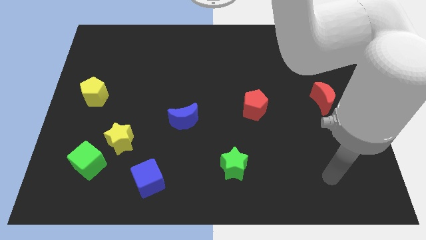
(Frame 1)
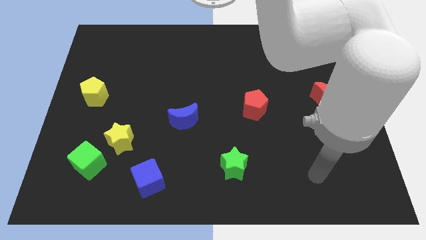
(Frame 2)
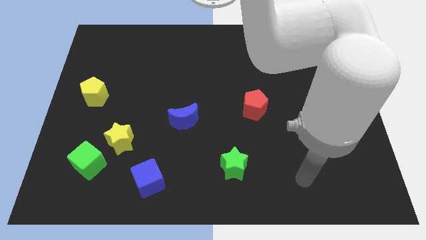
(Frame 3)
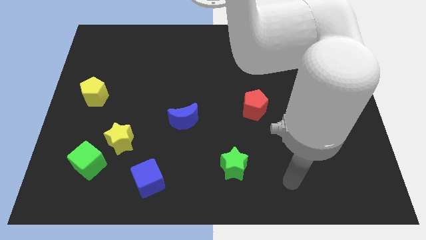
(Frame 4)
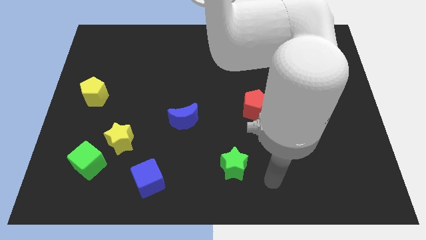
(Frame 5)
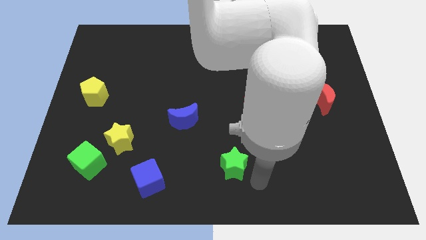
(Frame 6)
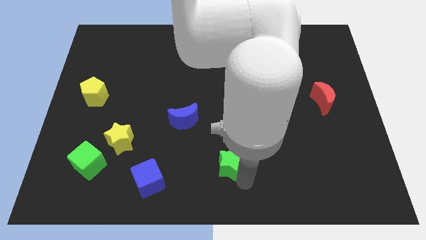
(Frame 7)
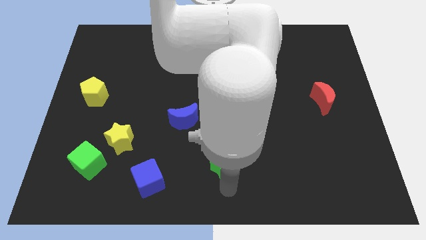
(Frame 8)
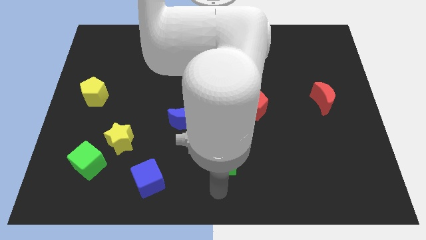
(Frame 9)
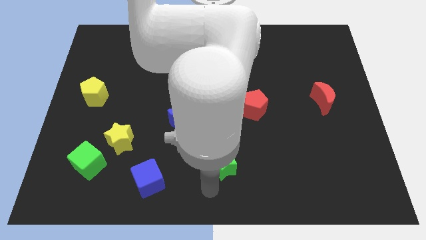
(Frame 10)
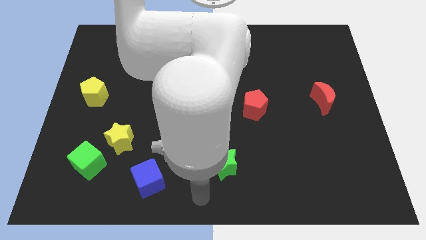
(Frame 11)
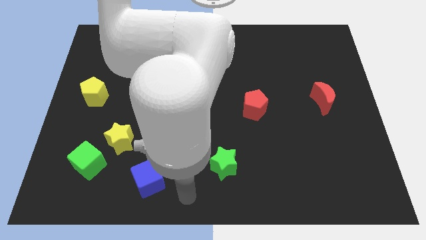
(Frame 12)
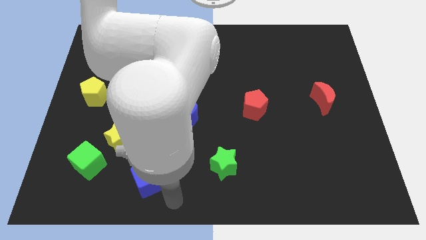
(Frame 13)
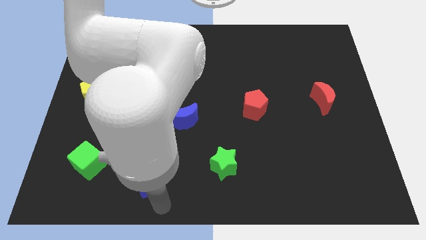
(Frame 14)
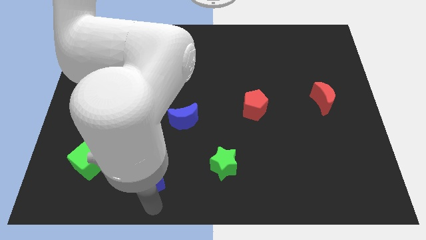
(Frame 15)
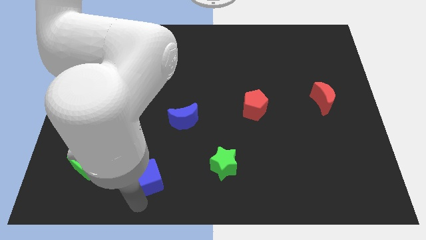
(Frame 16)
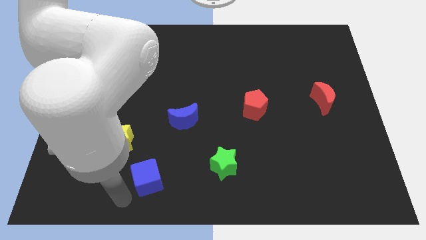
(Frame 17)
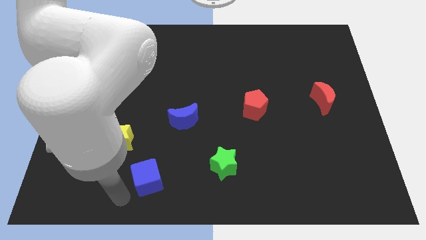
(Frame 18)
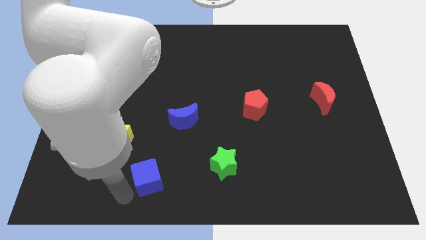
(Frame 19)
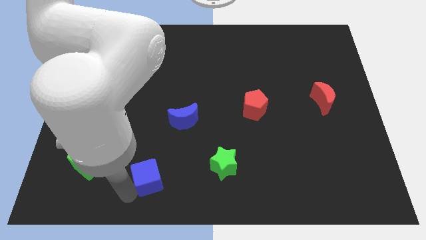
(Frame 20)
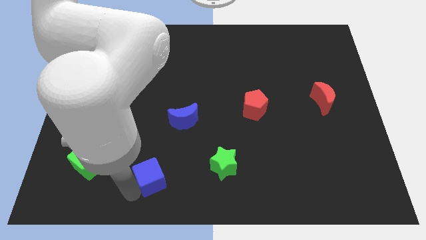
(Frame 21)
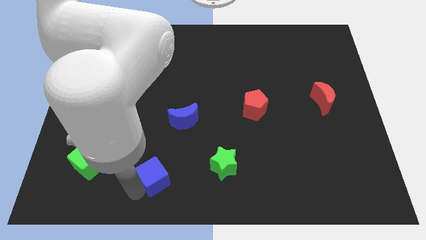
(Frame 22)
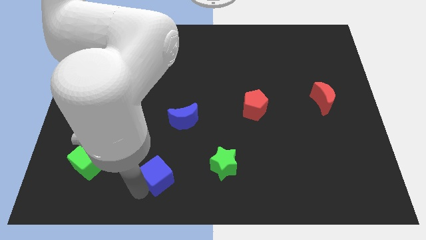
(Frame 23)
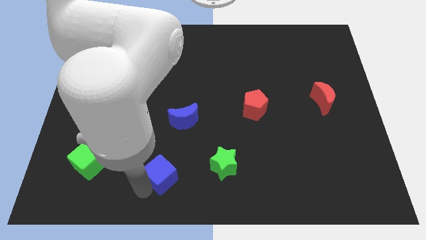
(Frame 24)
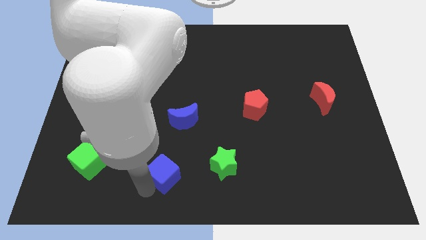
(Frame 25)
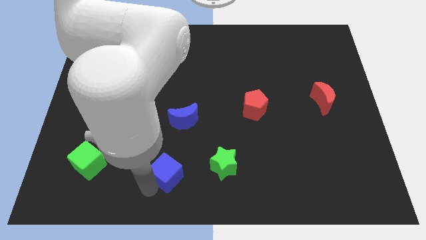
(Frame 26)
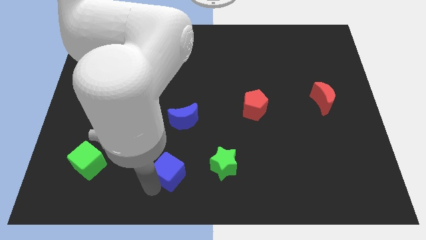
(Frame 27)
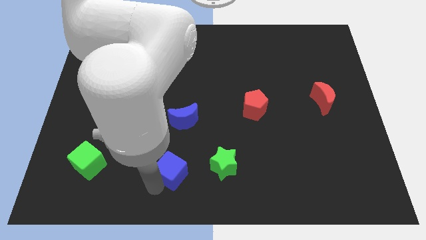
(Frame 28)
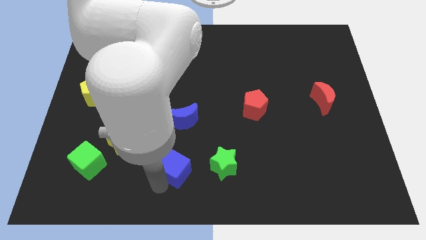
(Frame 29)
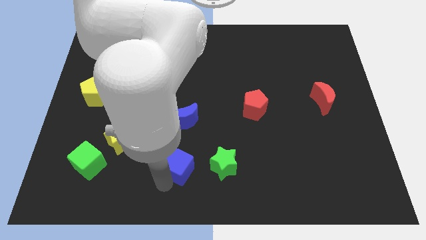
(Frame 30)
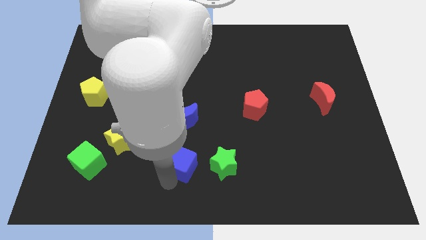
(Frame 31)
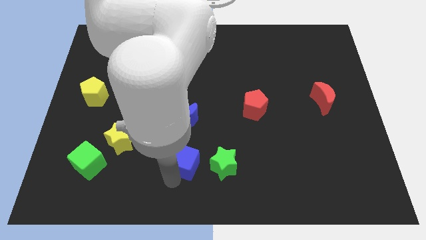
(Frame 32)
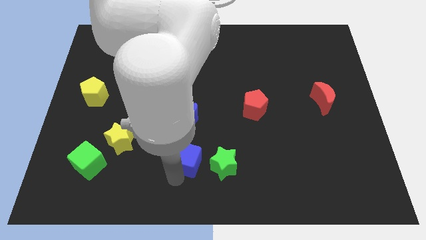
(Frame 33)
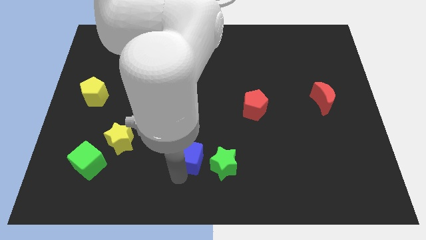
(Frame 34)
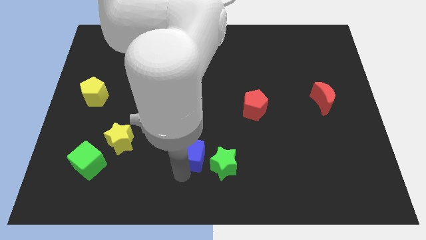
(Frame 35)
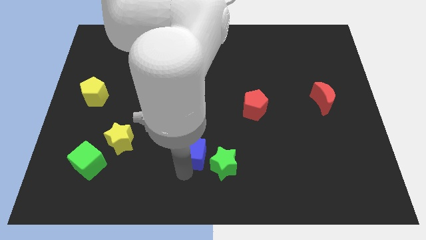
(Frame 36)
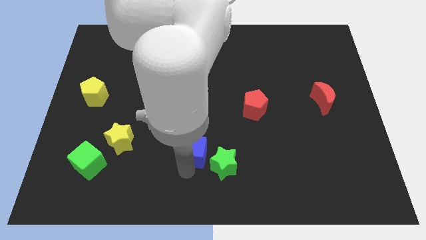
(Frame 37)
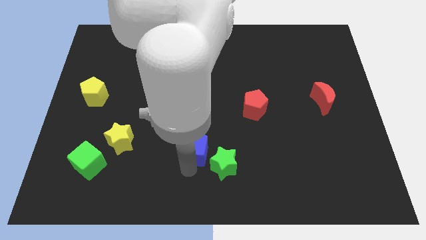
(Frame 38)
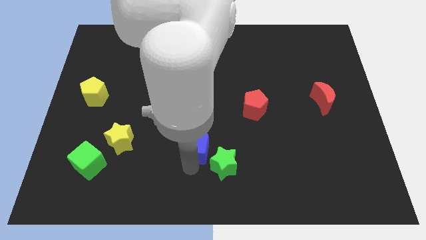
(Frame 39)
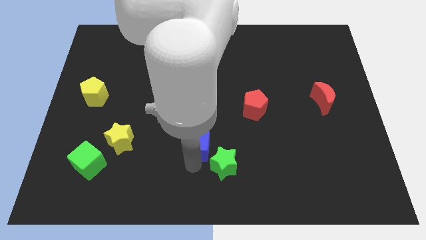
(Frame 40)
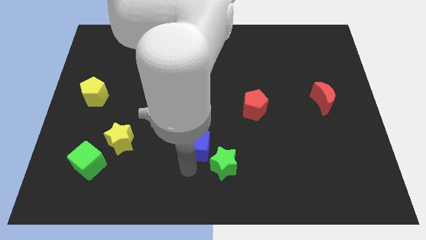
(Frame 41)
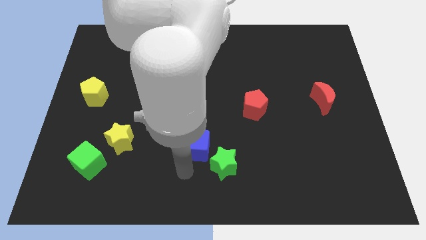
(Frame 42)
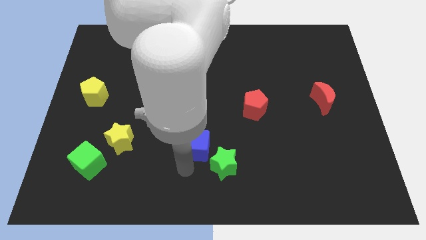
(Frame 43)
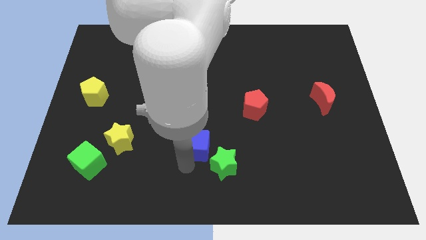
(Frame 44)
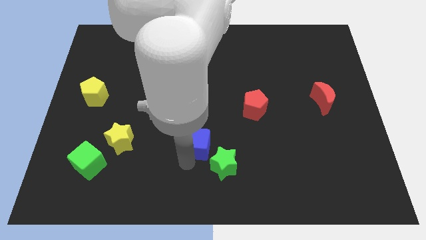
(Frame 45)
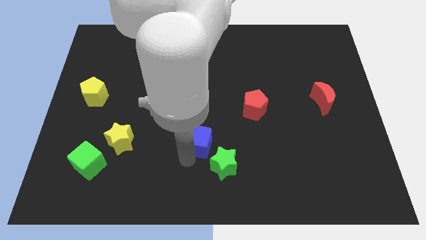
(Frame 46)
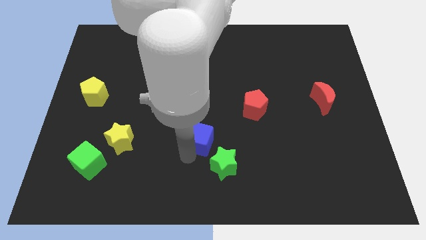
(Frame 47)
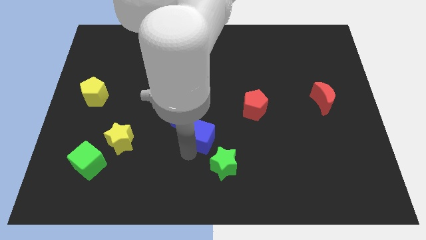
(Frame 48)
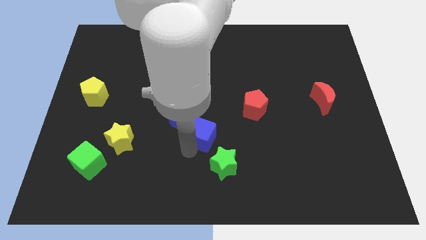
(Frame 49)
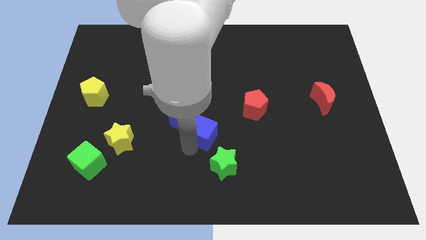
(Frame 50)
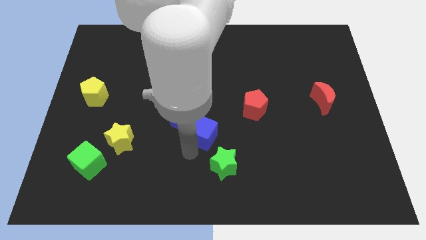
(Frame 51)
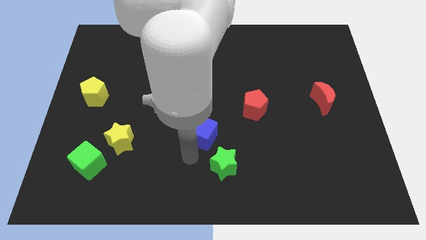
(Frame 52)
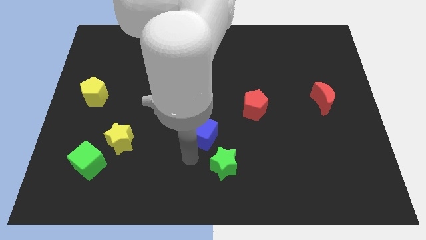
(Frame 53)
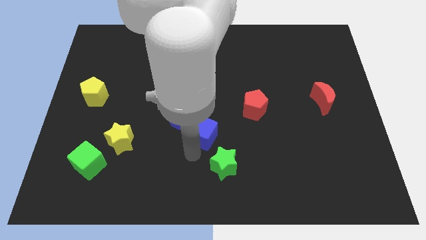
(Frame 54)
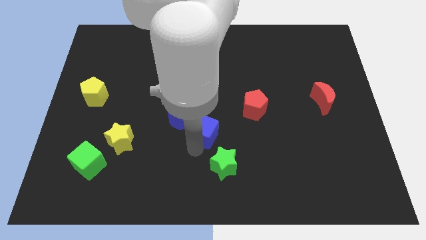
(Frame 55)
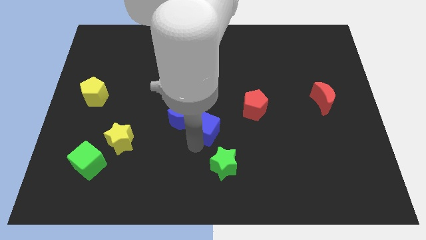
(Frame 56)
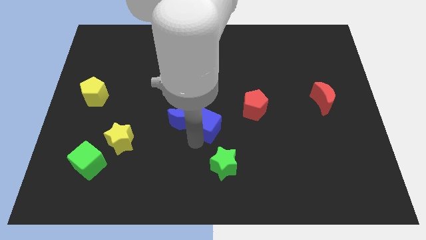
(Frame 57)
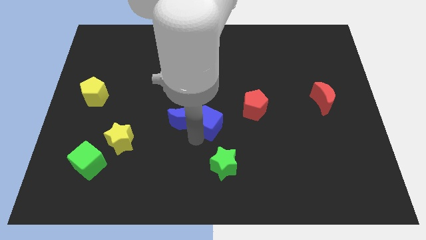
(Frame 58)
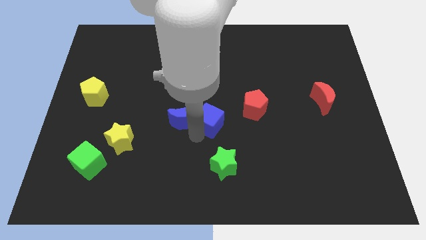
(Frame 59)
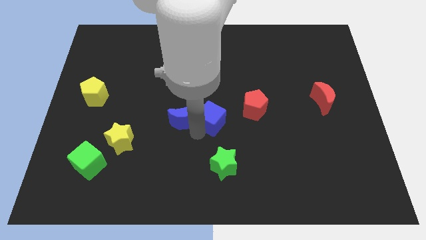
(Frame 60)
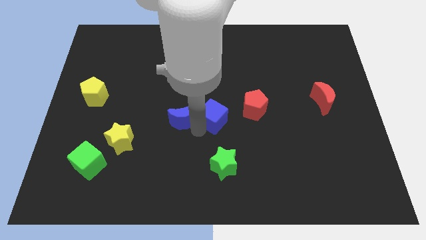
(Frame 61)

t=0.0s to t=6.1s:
push the blue cube upwards and right

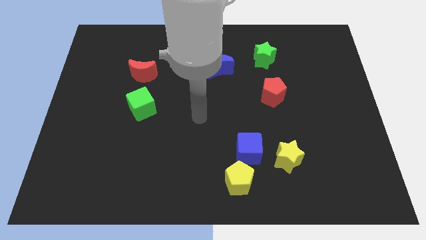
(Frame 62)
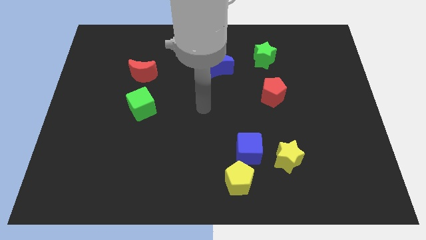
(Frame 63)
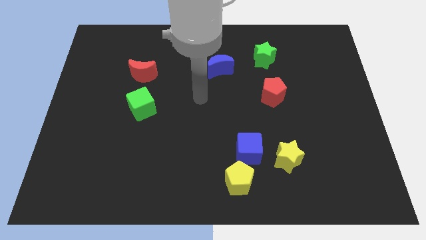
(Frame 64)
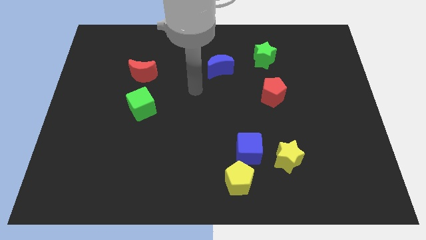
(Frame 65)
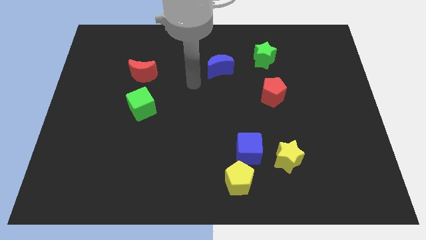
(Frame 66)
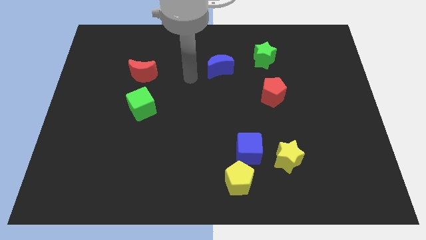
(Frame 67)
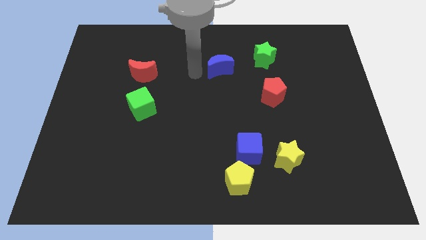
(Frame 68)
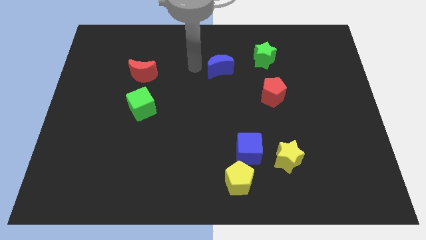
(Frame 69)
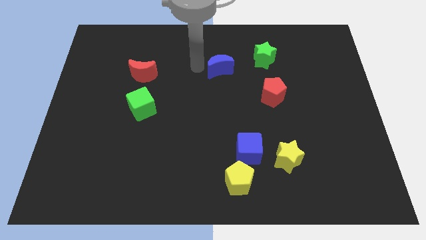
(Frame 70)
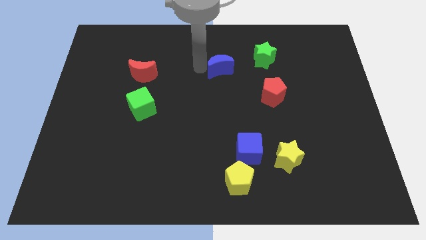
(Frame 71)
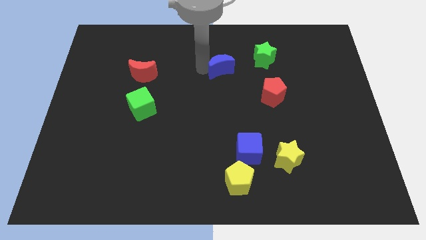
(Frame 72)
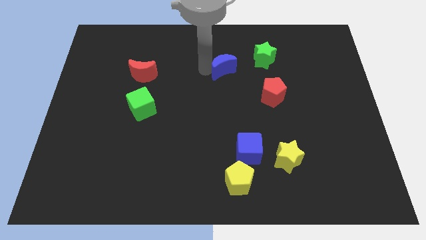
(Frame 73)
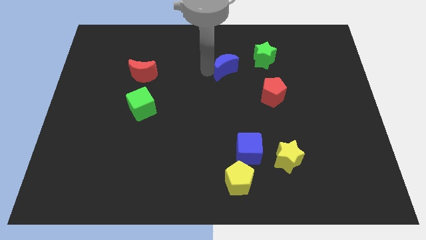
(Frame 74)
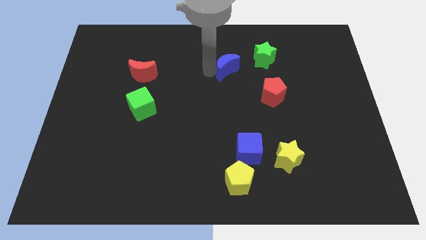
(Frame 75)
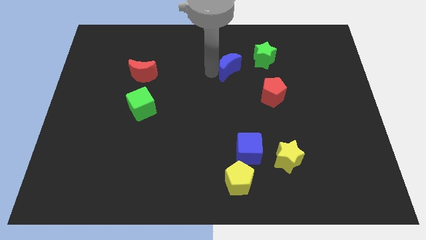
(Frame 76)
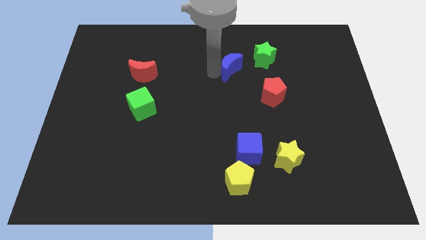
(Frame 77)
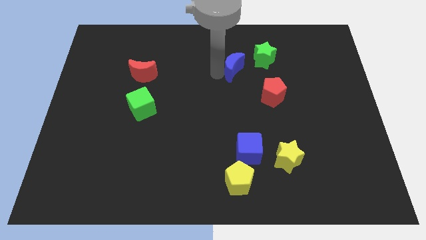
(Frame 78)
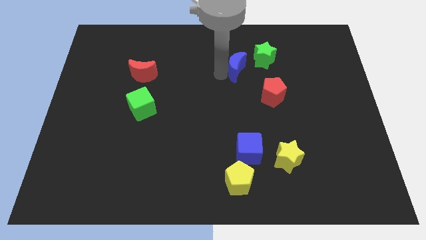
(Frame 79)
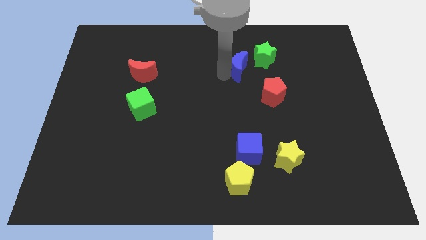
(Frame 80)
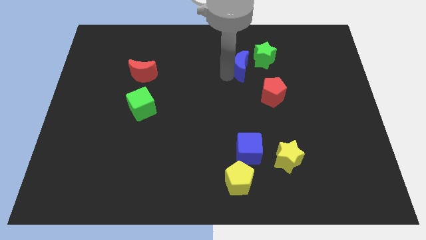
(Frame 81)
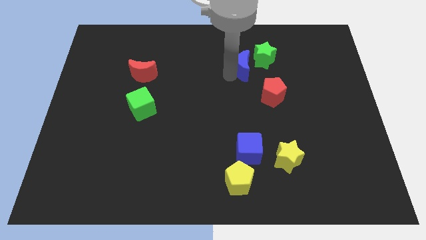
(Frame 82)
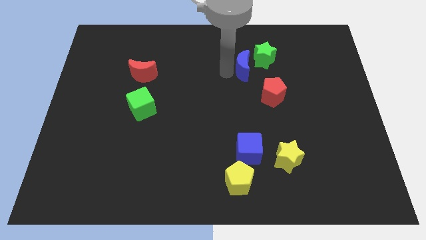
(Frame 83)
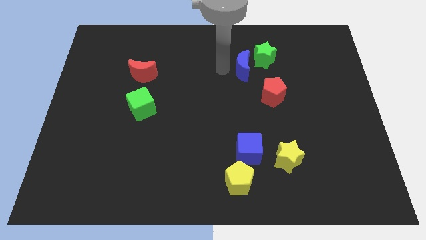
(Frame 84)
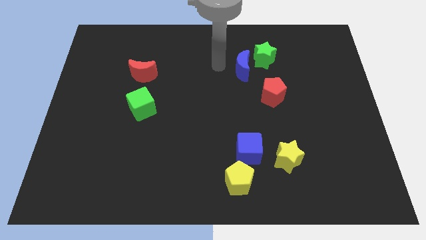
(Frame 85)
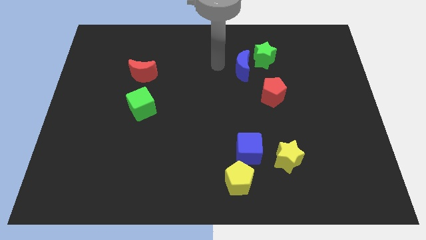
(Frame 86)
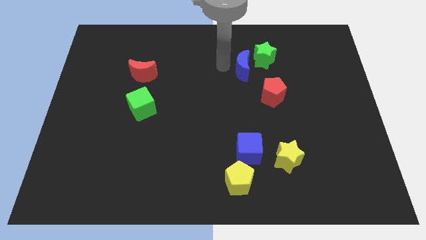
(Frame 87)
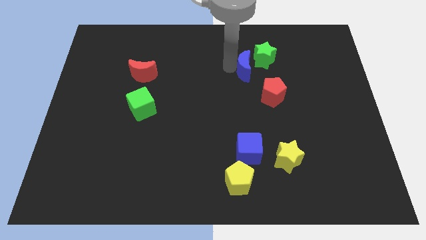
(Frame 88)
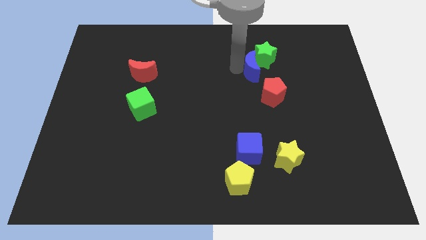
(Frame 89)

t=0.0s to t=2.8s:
slightly slide the blue moon right
